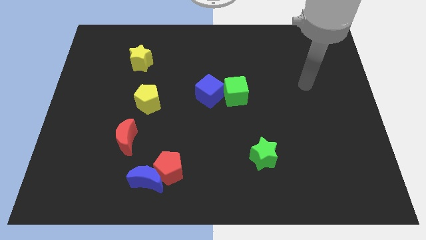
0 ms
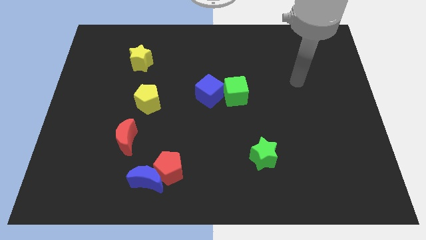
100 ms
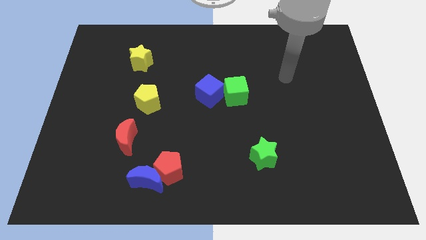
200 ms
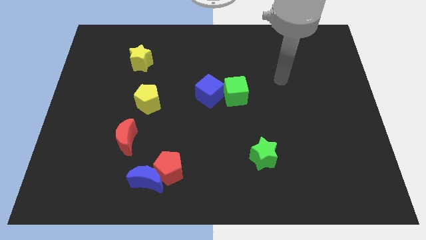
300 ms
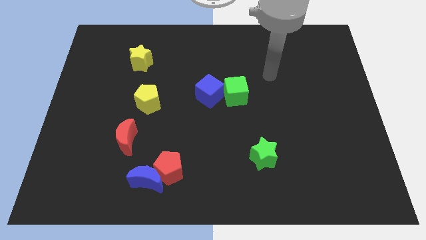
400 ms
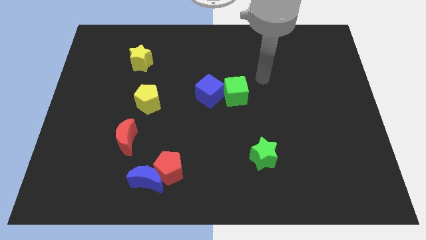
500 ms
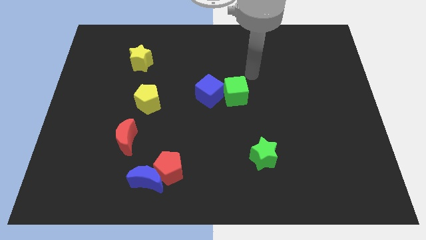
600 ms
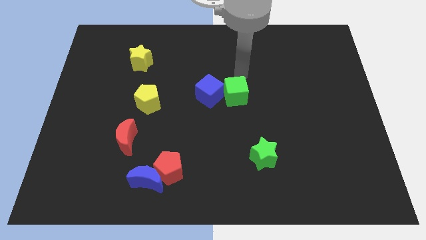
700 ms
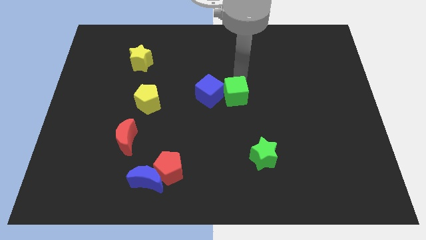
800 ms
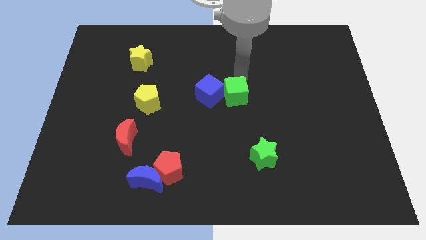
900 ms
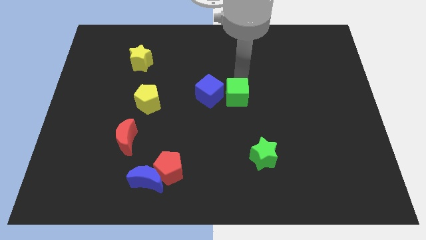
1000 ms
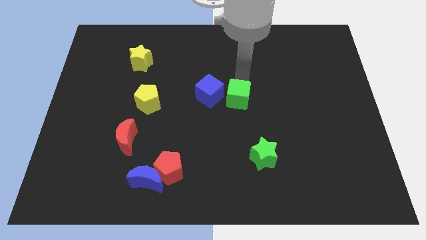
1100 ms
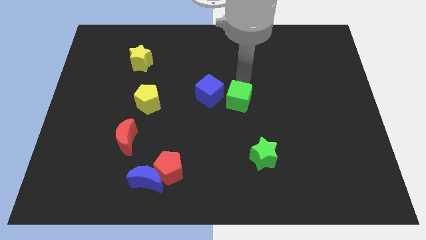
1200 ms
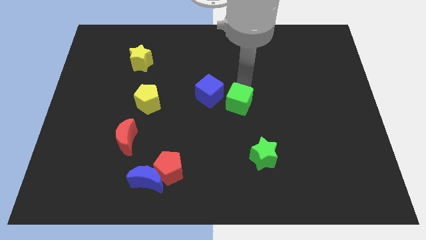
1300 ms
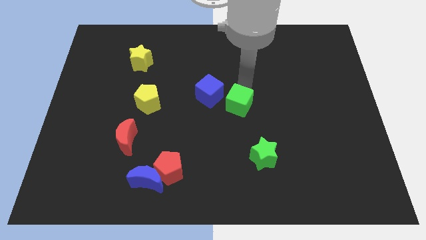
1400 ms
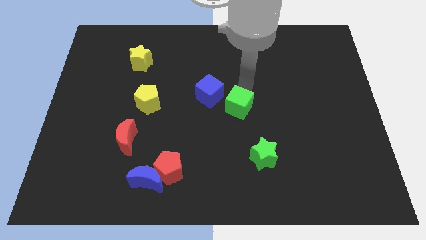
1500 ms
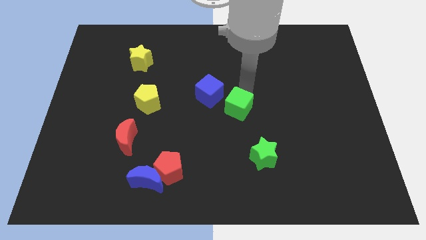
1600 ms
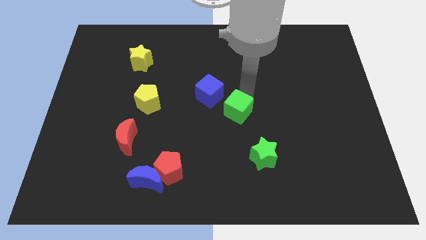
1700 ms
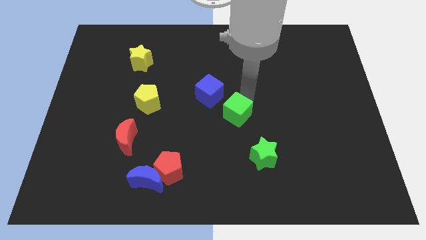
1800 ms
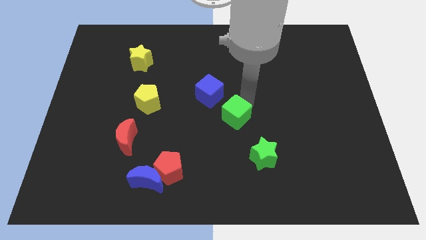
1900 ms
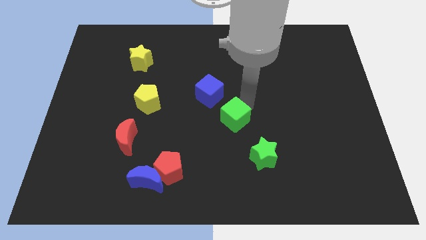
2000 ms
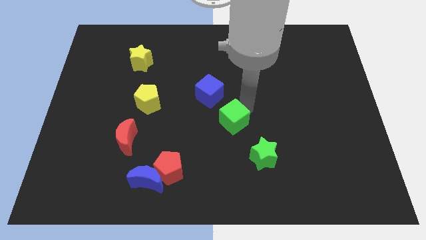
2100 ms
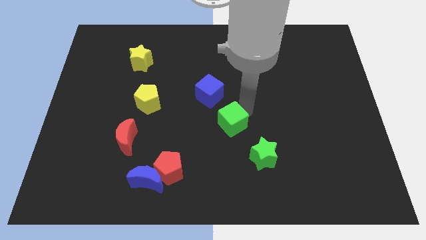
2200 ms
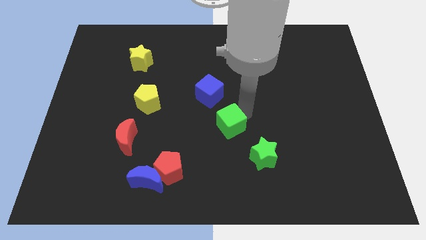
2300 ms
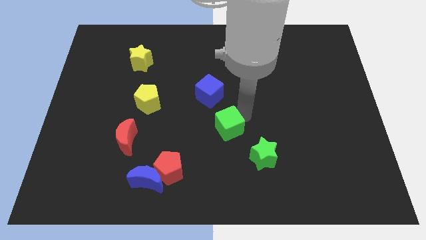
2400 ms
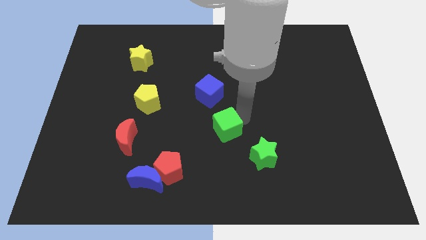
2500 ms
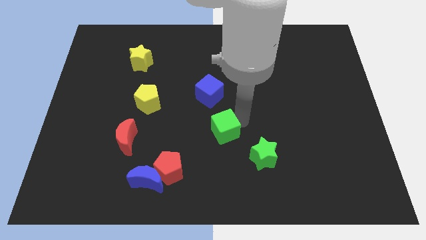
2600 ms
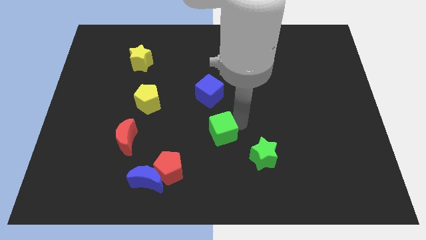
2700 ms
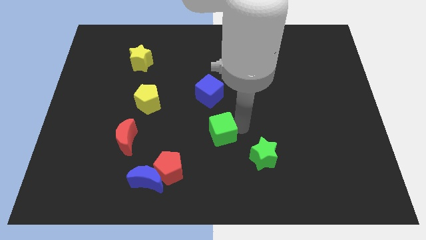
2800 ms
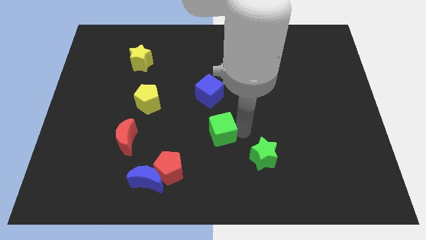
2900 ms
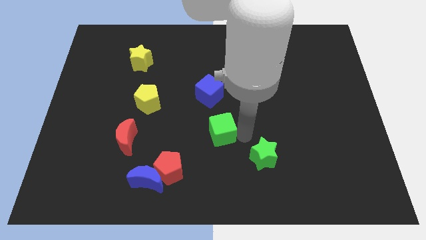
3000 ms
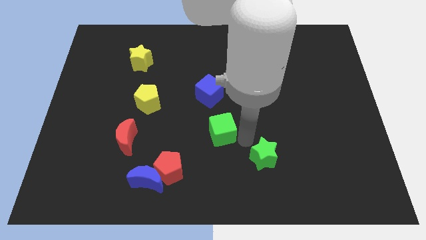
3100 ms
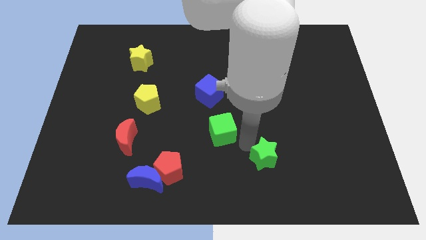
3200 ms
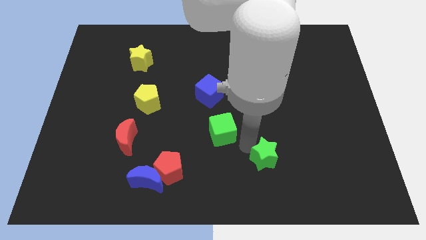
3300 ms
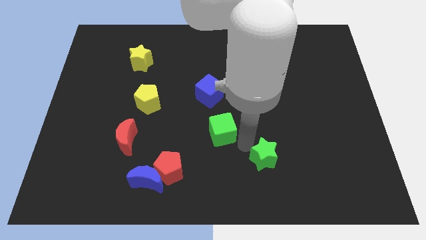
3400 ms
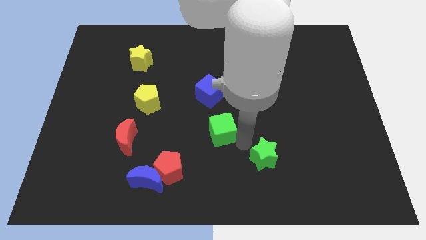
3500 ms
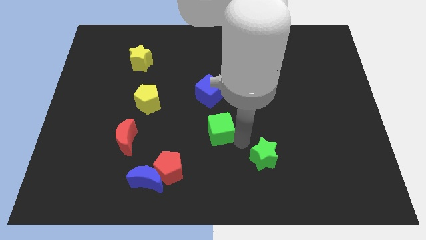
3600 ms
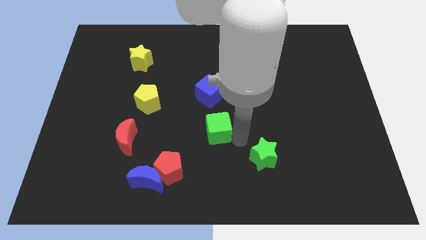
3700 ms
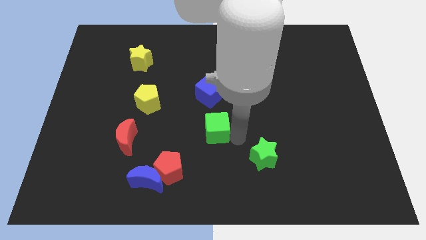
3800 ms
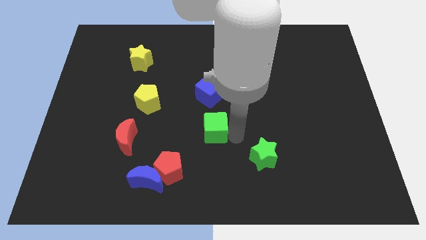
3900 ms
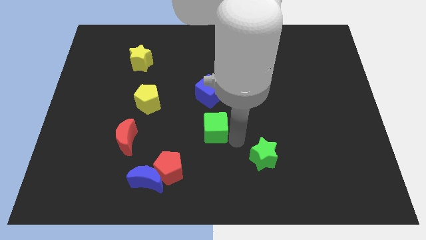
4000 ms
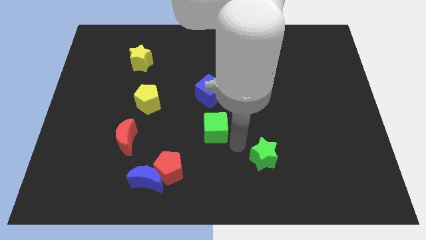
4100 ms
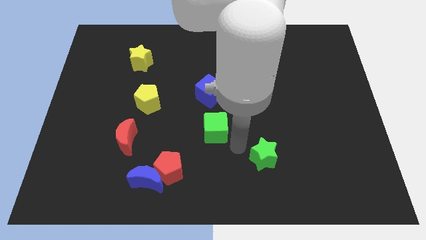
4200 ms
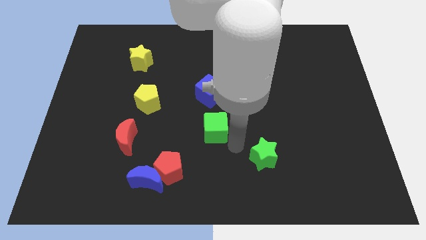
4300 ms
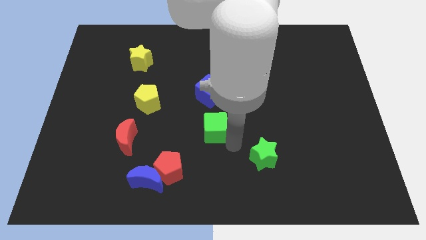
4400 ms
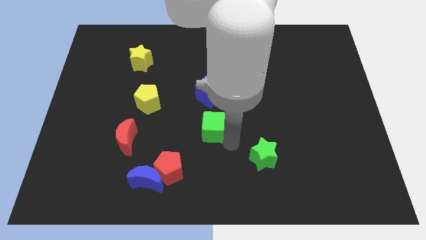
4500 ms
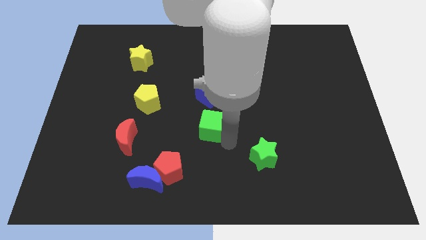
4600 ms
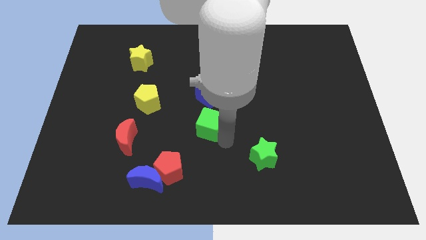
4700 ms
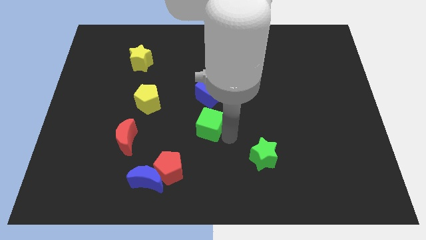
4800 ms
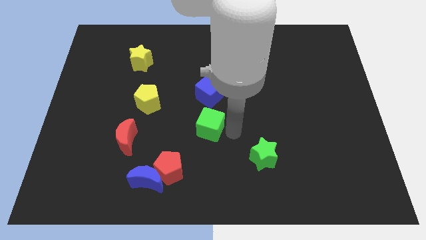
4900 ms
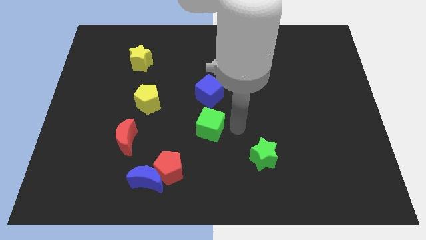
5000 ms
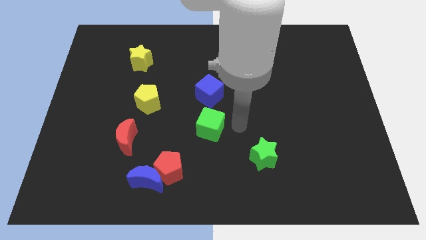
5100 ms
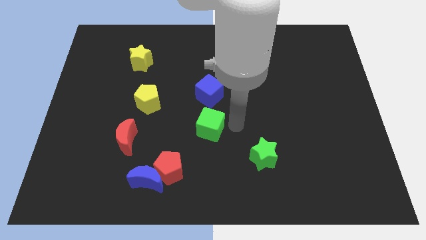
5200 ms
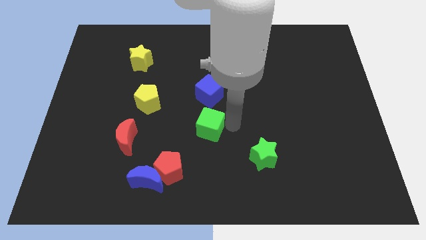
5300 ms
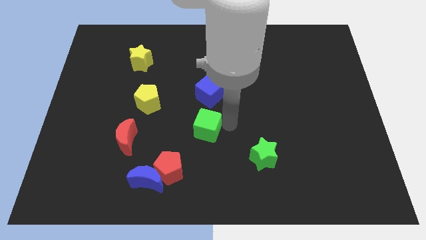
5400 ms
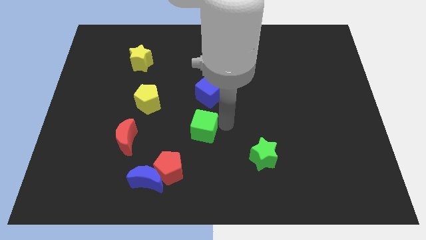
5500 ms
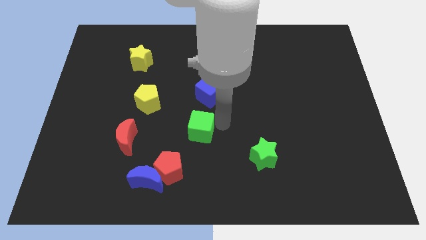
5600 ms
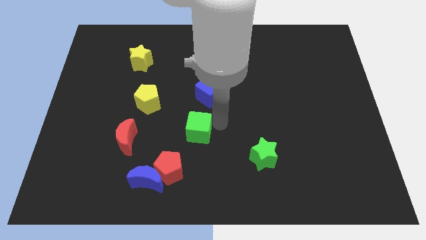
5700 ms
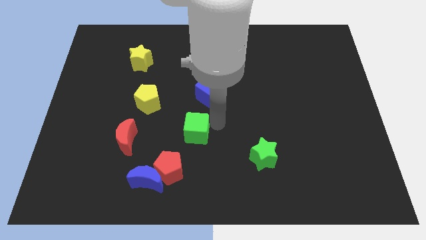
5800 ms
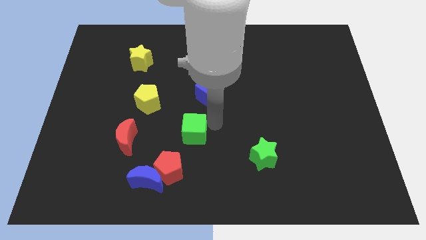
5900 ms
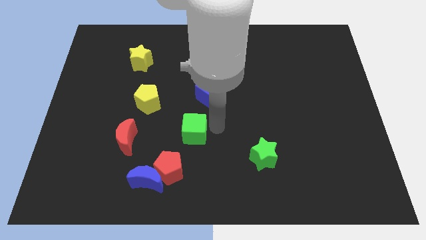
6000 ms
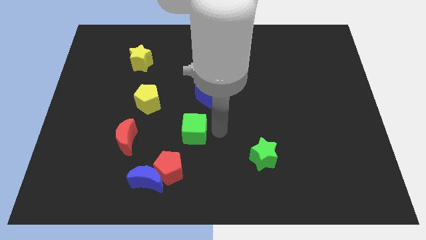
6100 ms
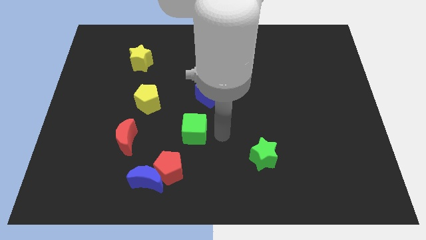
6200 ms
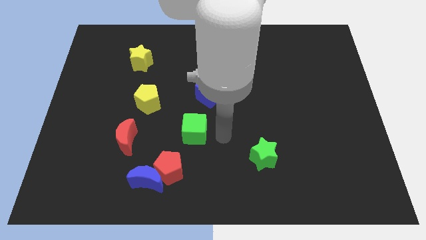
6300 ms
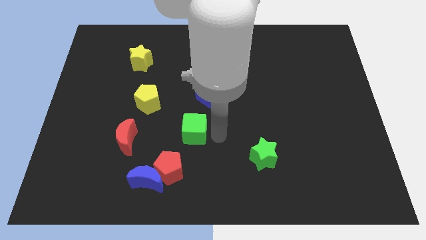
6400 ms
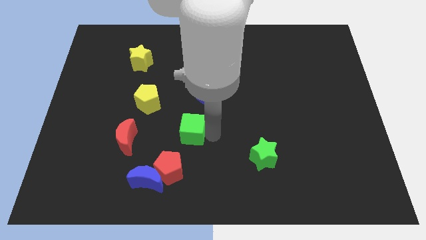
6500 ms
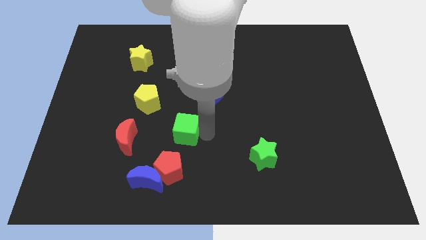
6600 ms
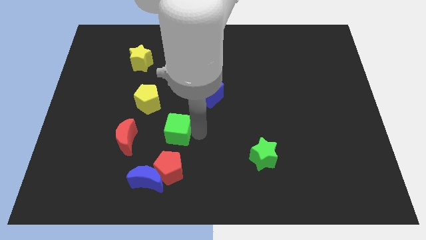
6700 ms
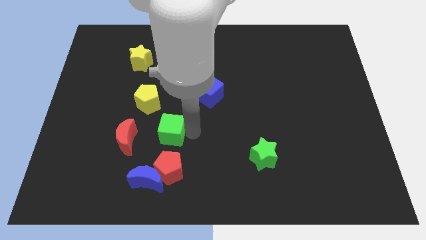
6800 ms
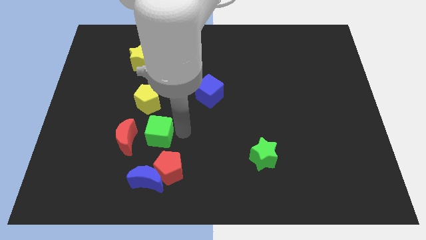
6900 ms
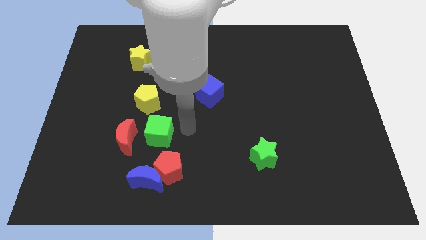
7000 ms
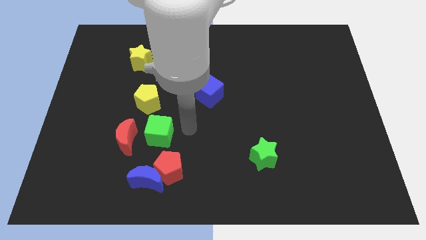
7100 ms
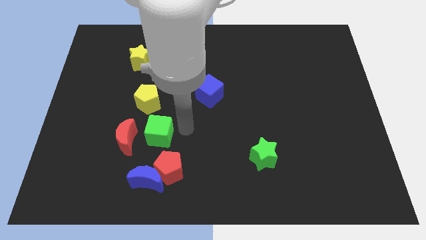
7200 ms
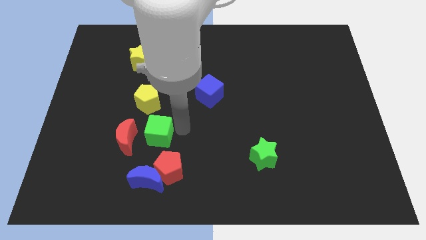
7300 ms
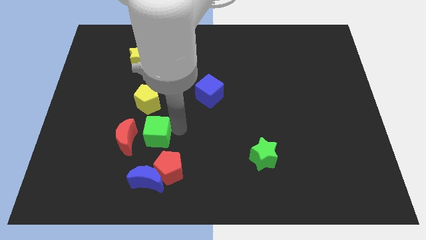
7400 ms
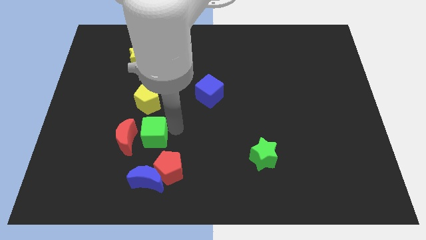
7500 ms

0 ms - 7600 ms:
move the green cube close to the red moon
